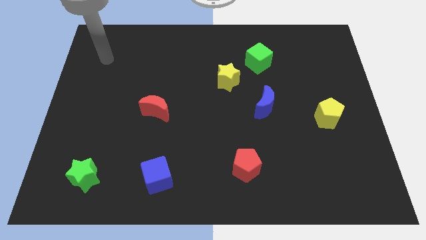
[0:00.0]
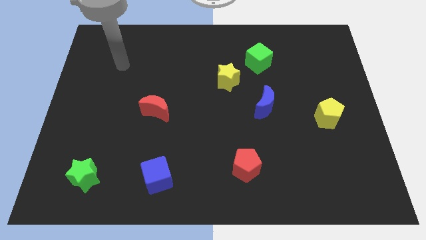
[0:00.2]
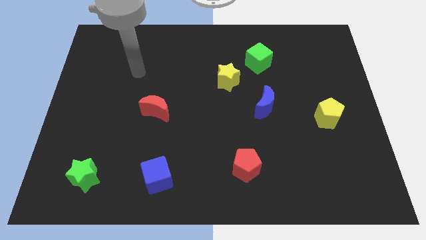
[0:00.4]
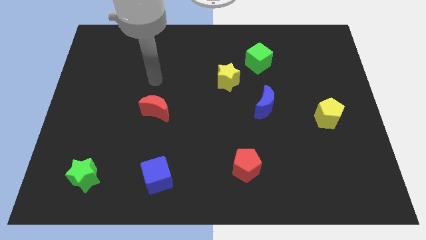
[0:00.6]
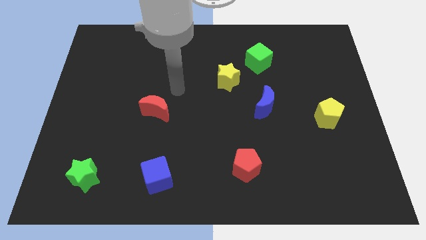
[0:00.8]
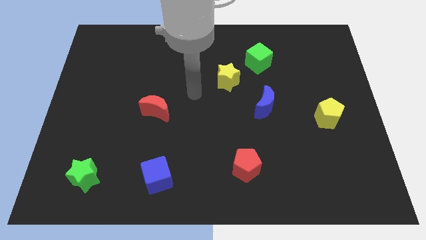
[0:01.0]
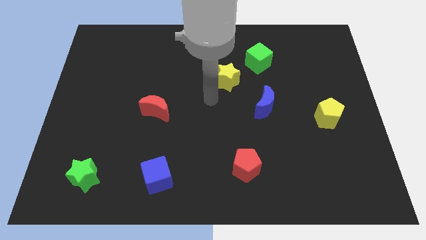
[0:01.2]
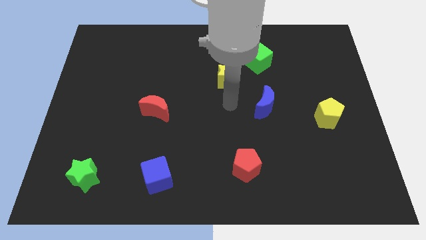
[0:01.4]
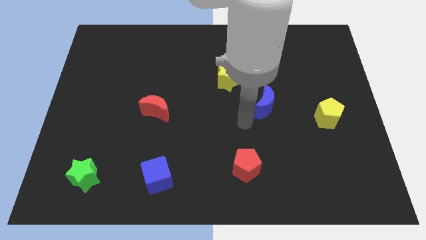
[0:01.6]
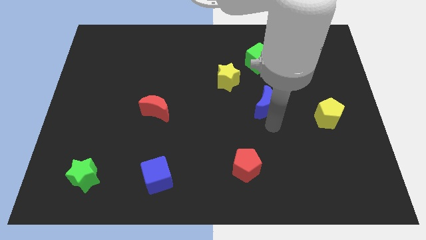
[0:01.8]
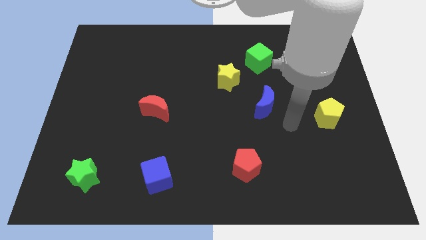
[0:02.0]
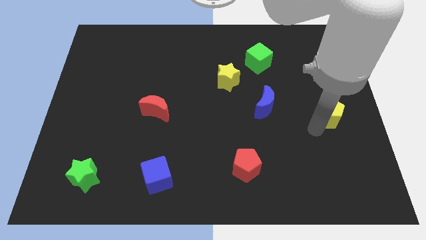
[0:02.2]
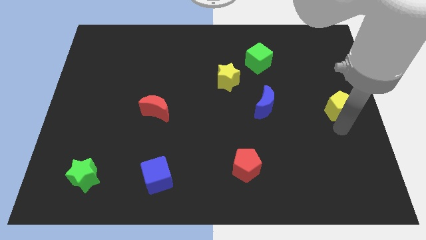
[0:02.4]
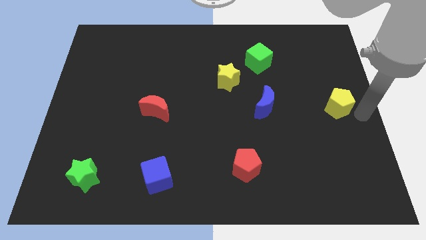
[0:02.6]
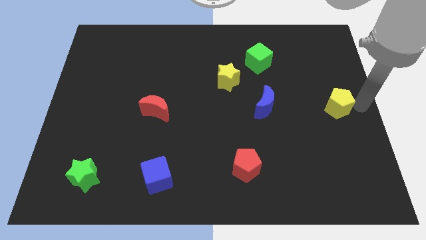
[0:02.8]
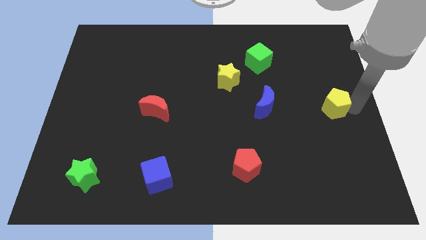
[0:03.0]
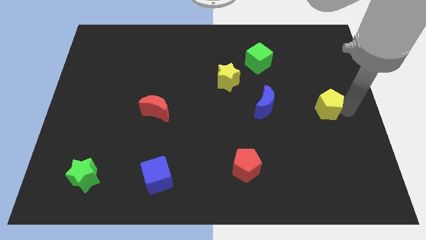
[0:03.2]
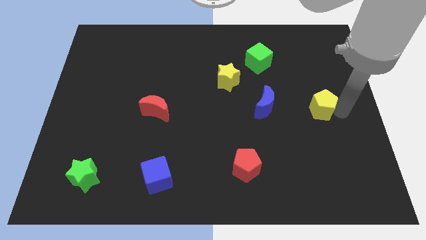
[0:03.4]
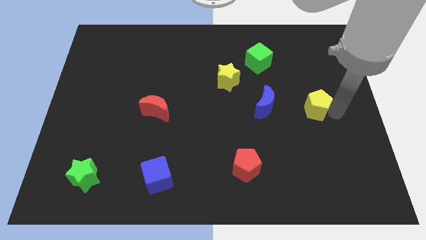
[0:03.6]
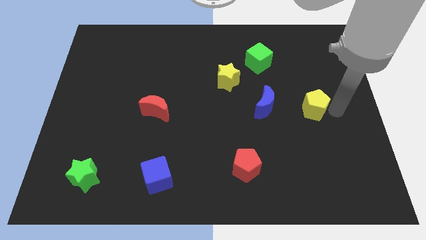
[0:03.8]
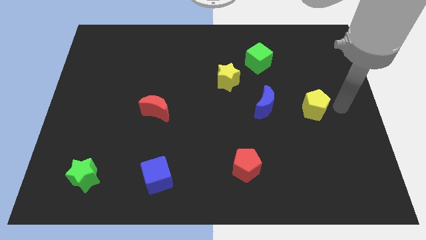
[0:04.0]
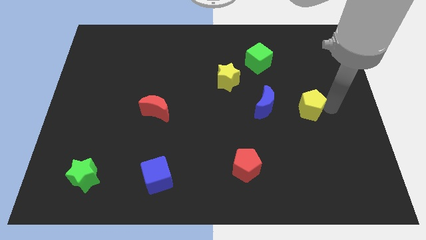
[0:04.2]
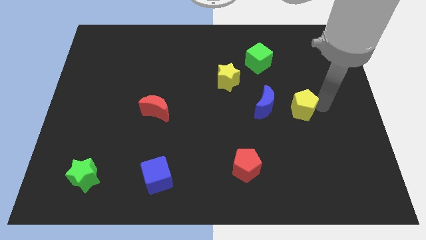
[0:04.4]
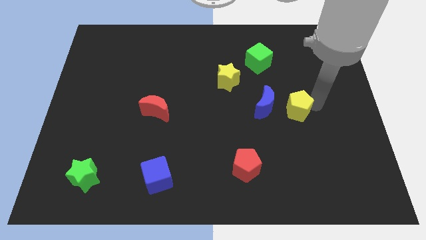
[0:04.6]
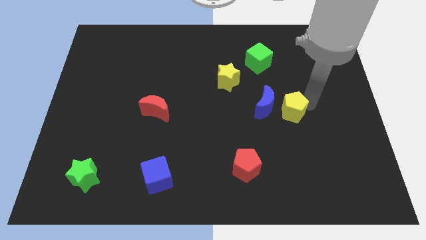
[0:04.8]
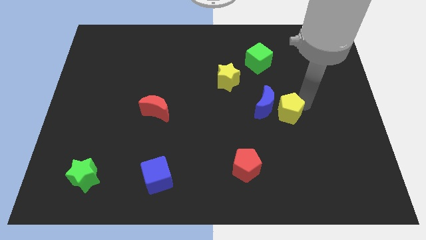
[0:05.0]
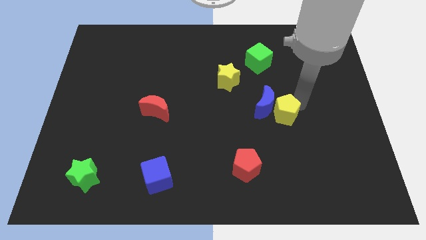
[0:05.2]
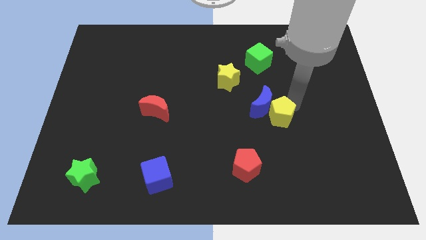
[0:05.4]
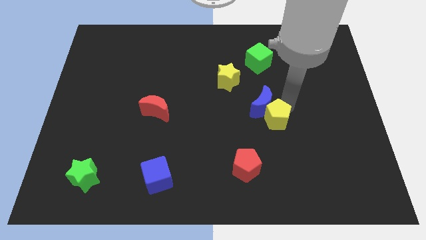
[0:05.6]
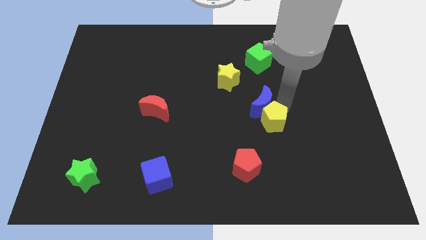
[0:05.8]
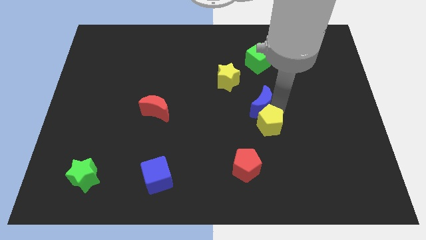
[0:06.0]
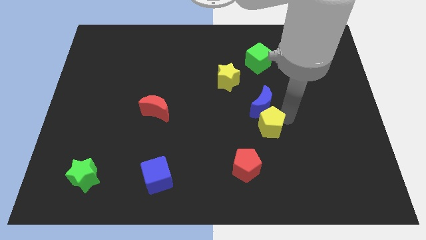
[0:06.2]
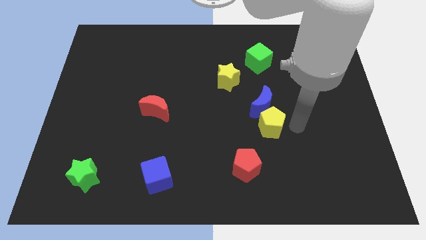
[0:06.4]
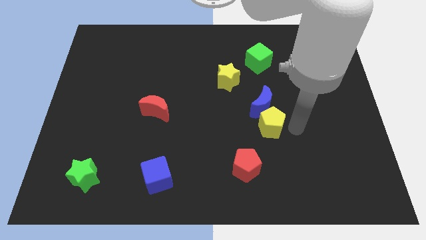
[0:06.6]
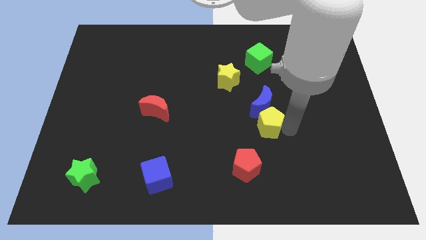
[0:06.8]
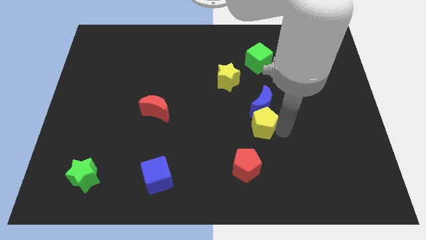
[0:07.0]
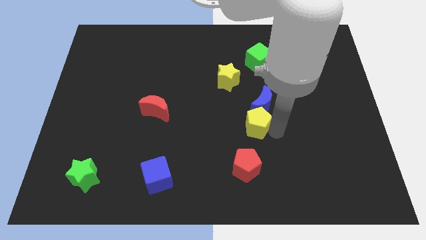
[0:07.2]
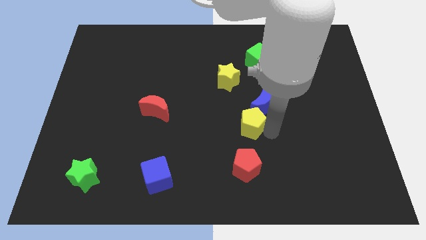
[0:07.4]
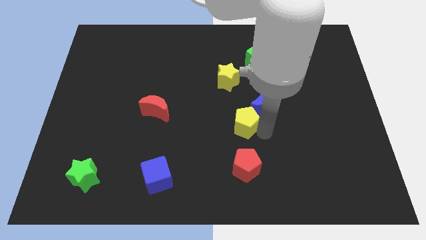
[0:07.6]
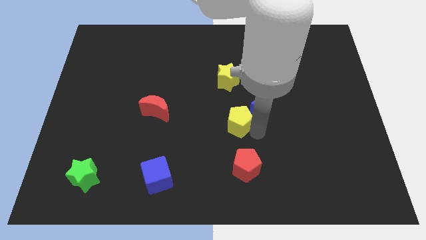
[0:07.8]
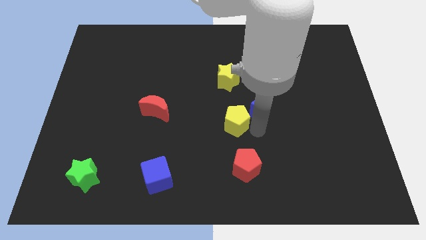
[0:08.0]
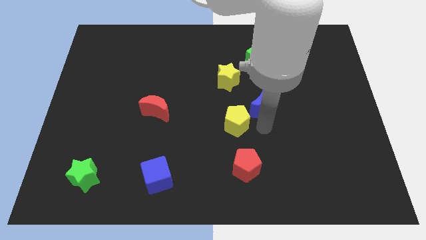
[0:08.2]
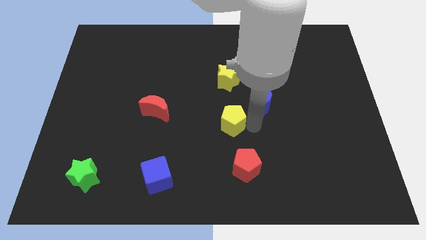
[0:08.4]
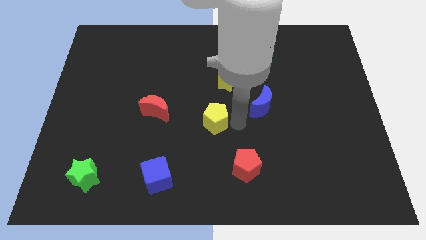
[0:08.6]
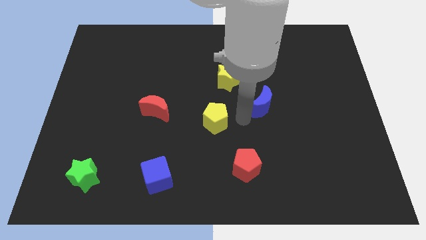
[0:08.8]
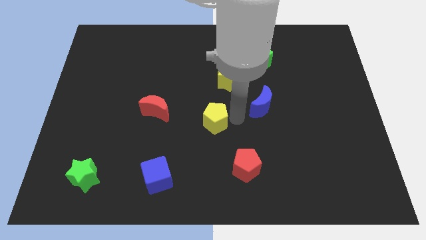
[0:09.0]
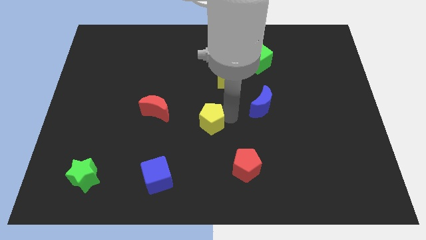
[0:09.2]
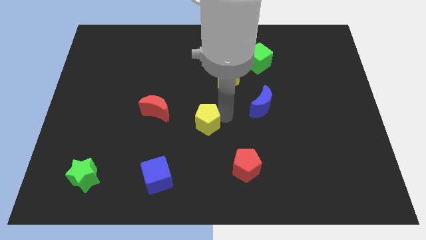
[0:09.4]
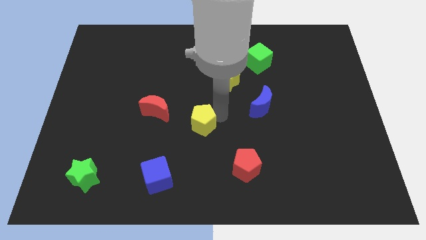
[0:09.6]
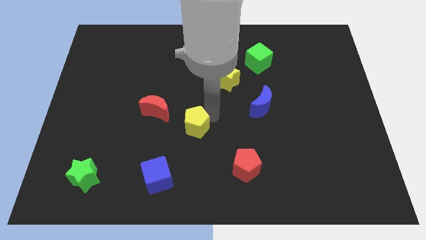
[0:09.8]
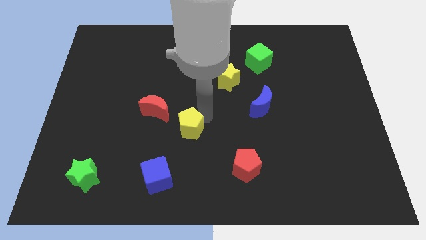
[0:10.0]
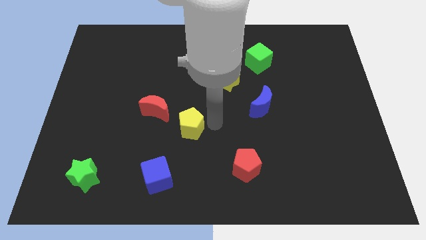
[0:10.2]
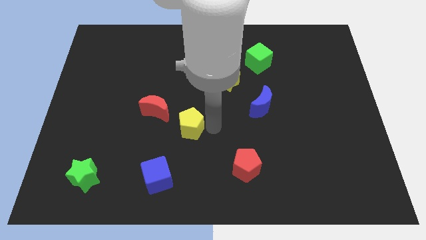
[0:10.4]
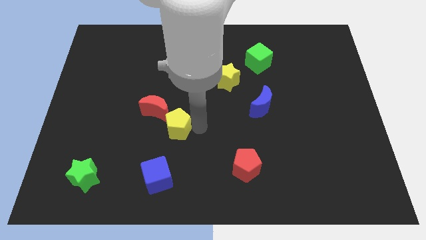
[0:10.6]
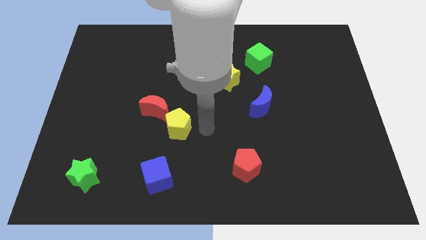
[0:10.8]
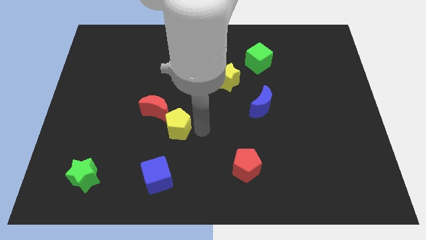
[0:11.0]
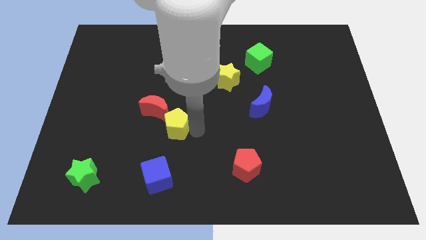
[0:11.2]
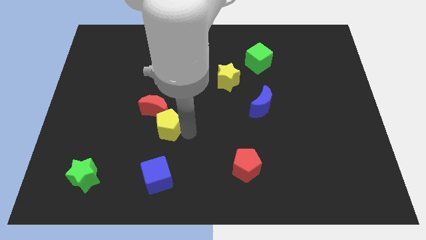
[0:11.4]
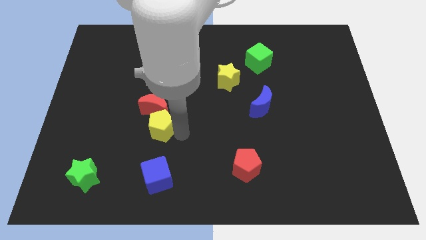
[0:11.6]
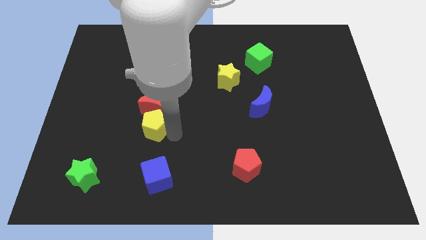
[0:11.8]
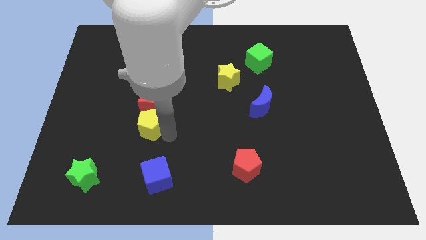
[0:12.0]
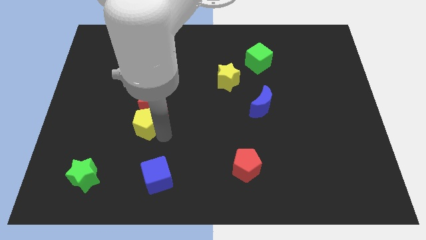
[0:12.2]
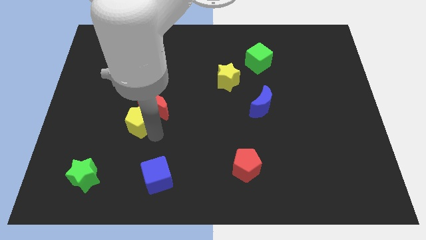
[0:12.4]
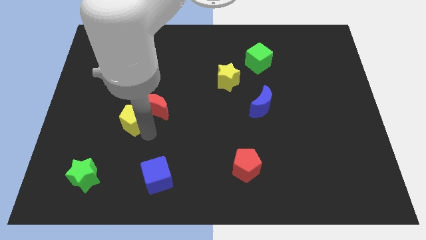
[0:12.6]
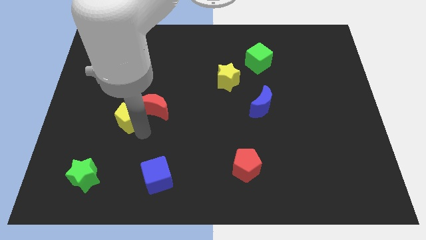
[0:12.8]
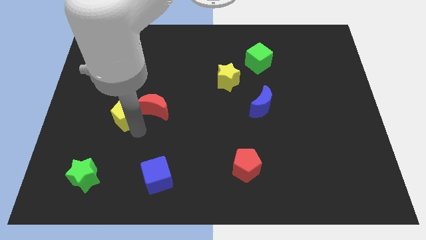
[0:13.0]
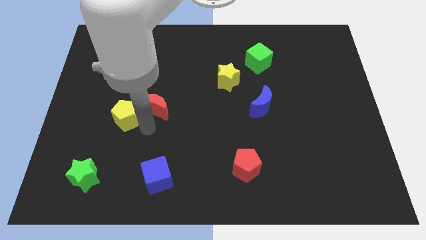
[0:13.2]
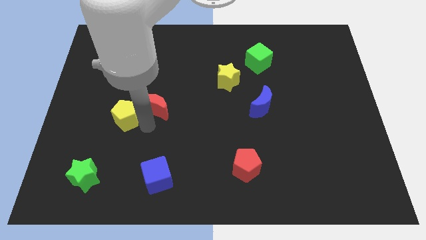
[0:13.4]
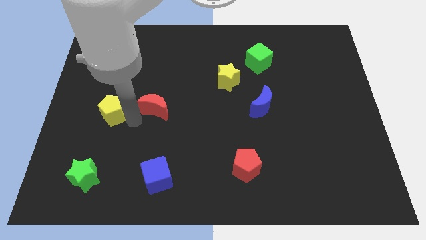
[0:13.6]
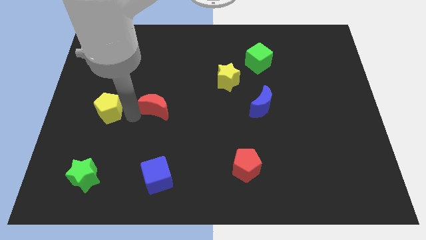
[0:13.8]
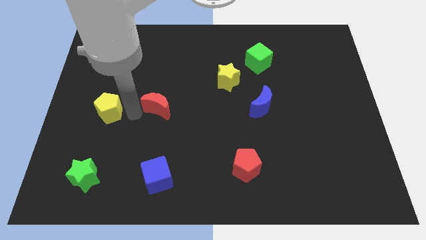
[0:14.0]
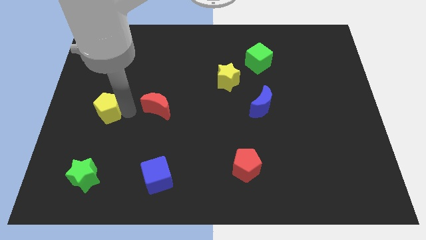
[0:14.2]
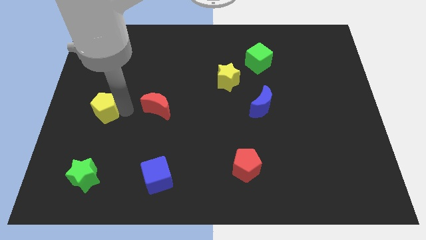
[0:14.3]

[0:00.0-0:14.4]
push the yellow pentagon to the left side of the board
